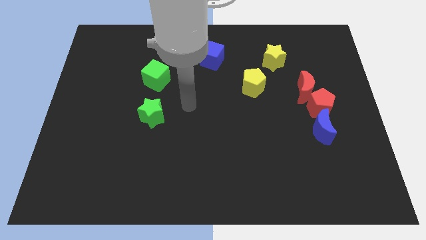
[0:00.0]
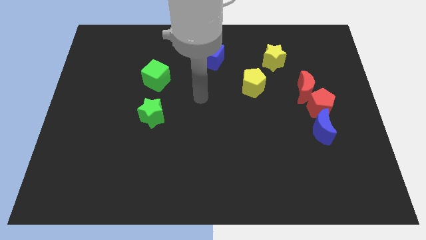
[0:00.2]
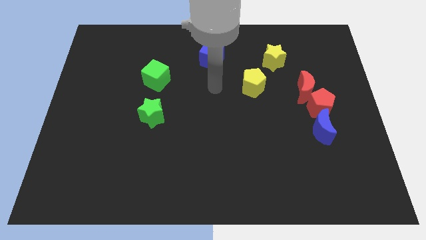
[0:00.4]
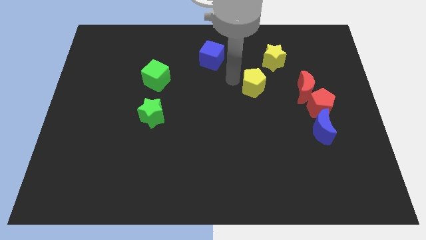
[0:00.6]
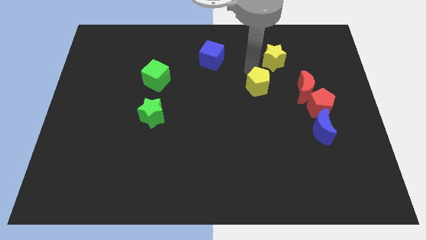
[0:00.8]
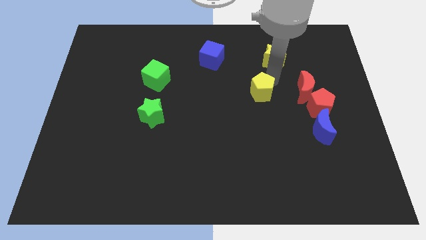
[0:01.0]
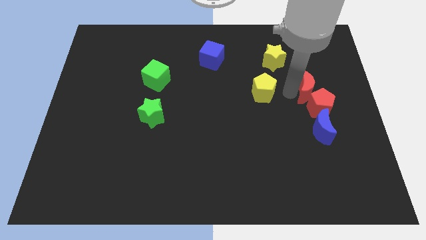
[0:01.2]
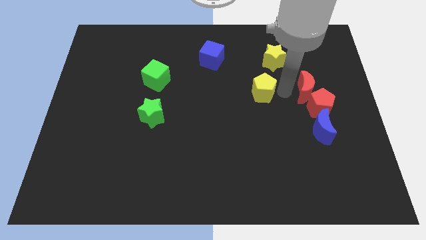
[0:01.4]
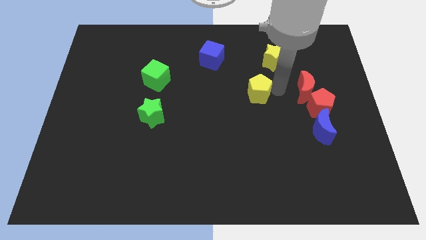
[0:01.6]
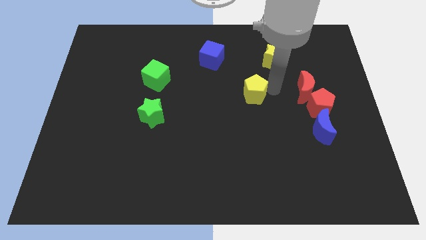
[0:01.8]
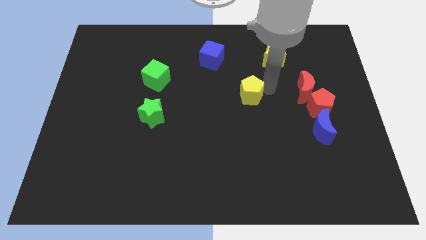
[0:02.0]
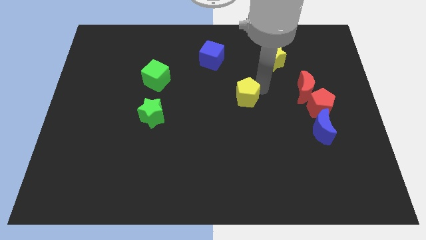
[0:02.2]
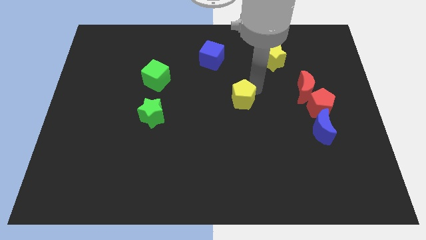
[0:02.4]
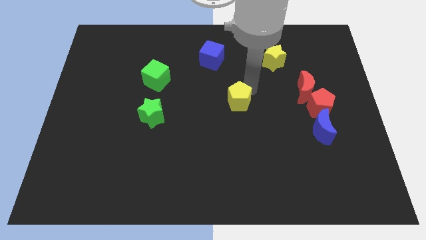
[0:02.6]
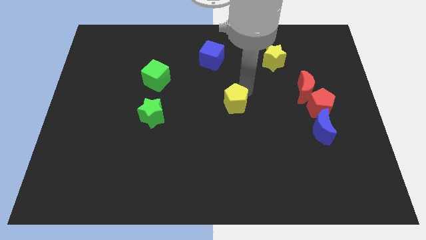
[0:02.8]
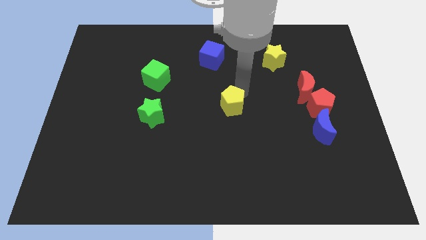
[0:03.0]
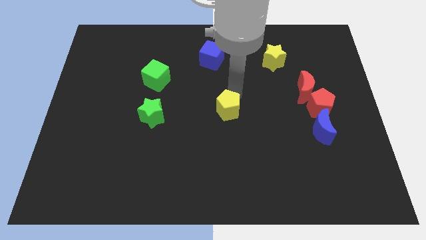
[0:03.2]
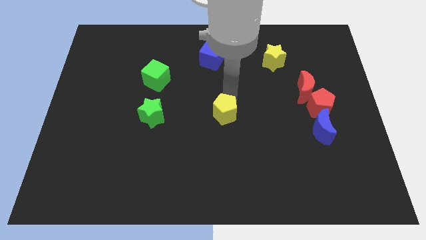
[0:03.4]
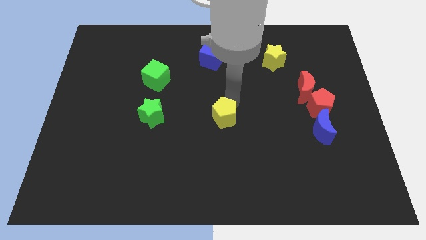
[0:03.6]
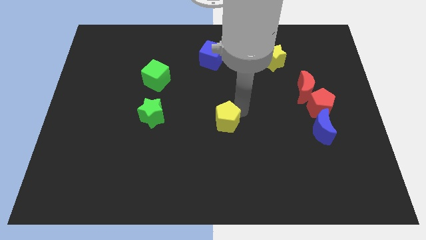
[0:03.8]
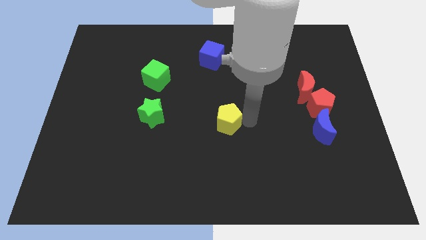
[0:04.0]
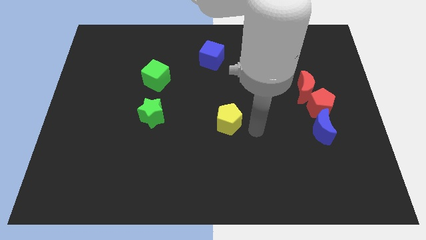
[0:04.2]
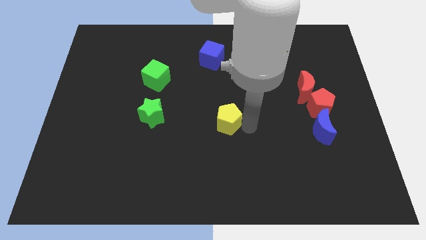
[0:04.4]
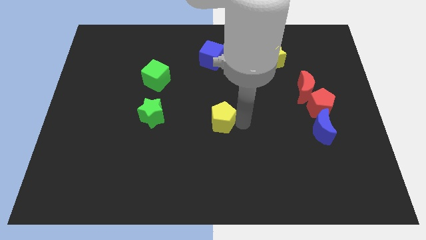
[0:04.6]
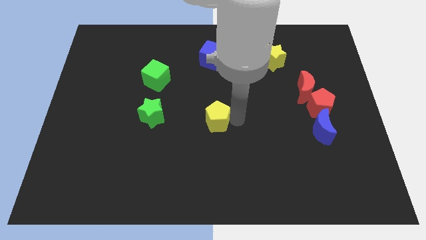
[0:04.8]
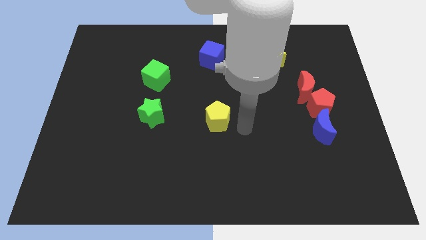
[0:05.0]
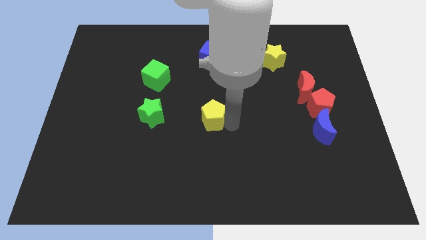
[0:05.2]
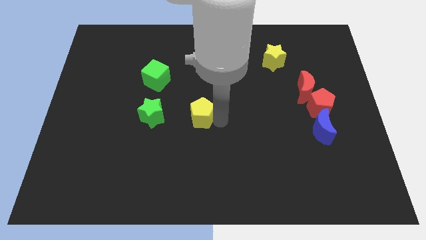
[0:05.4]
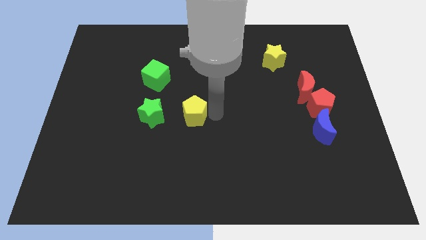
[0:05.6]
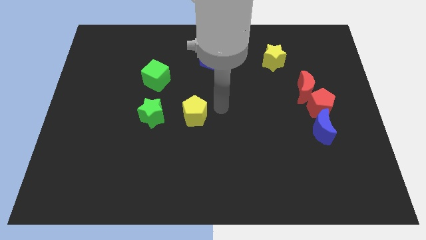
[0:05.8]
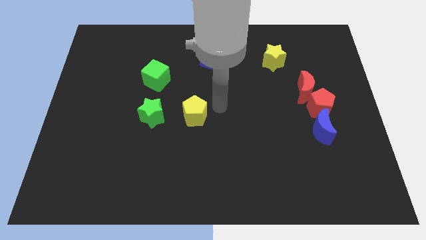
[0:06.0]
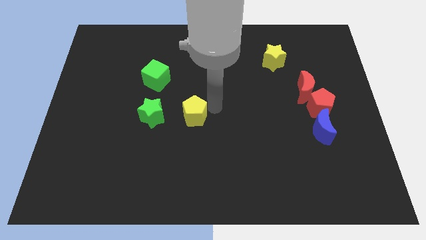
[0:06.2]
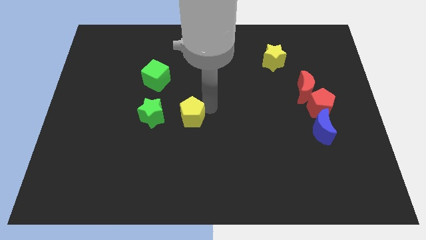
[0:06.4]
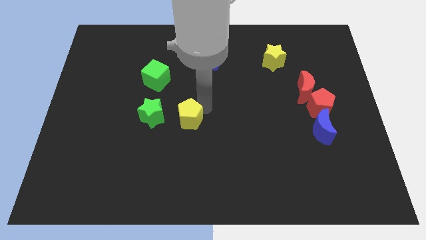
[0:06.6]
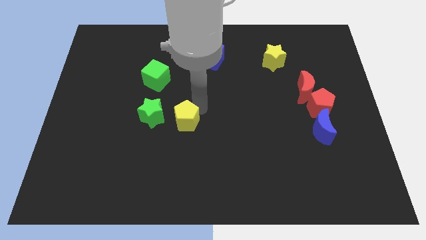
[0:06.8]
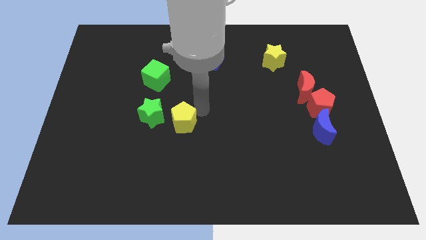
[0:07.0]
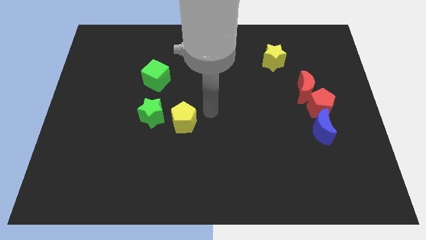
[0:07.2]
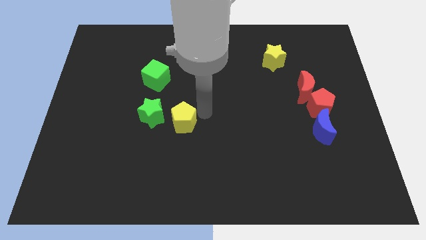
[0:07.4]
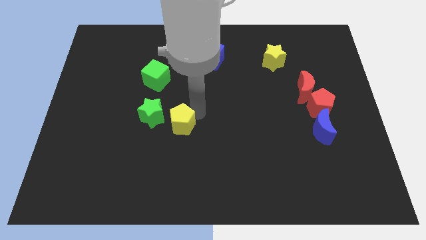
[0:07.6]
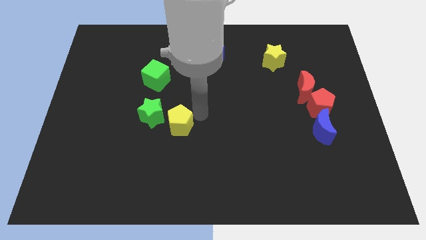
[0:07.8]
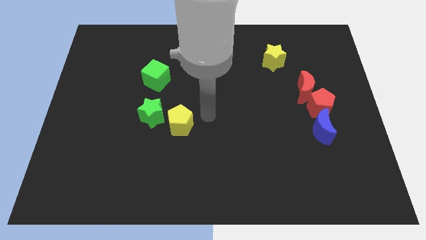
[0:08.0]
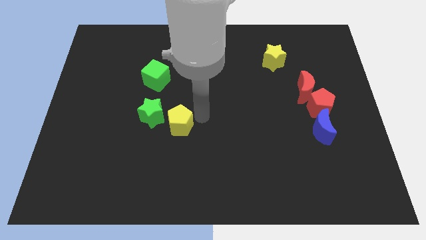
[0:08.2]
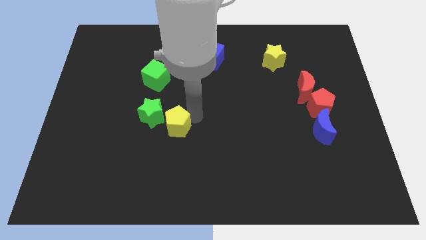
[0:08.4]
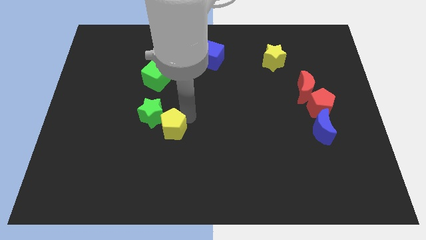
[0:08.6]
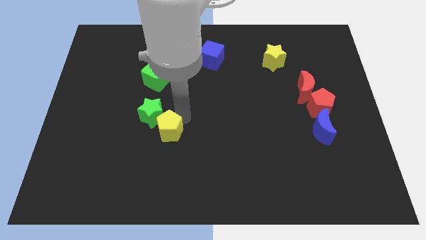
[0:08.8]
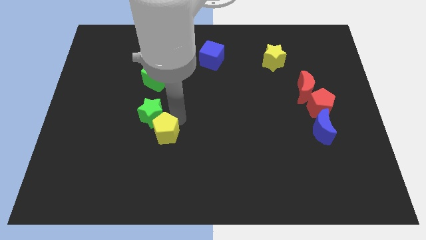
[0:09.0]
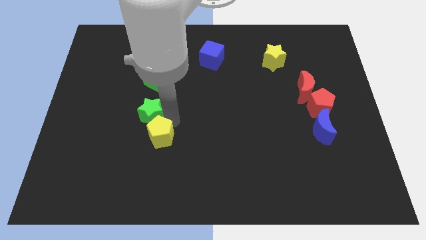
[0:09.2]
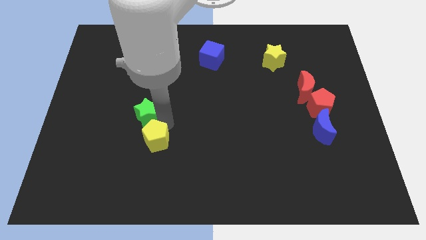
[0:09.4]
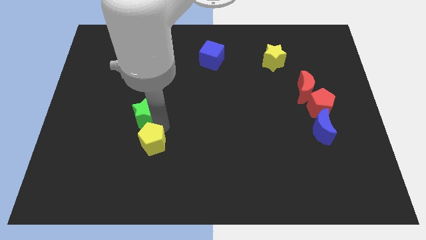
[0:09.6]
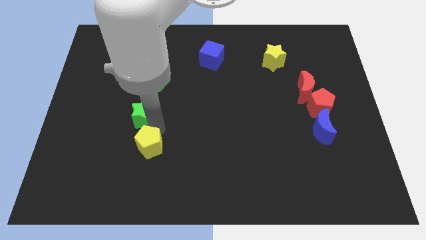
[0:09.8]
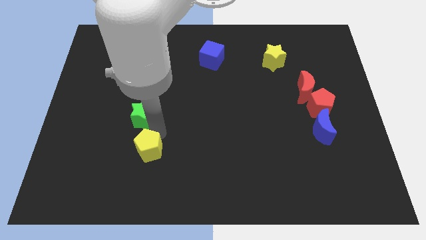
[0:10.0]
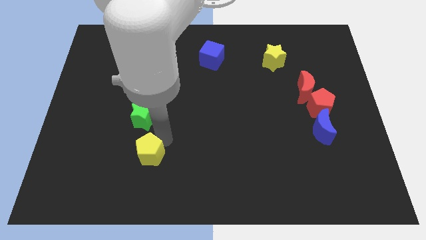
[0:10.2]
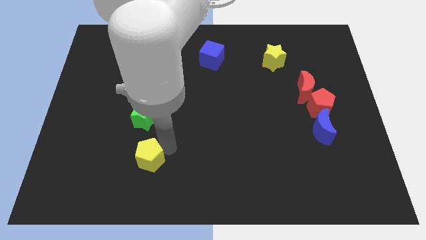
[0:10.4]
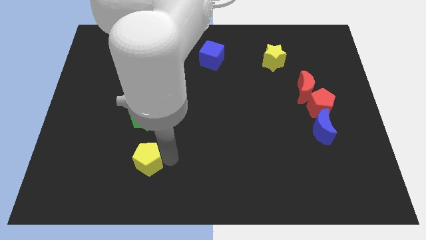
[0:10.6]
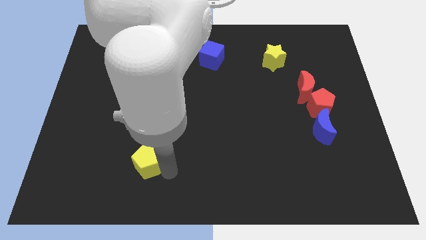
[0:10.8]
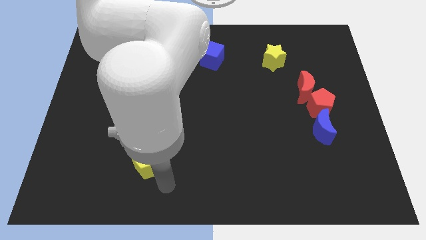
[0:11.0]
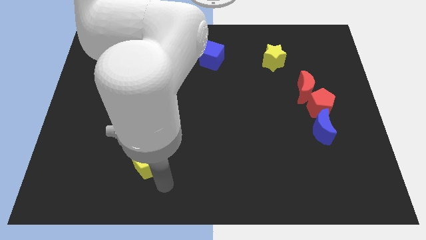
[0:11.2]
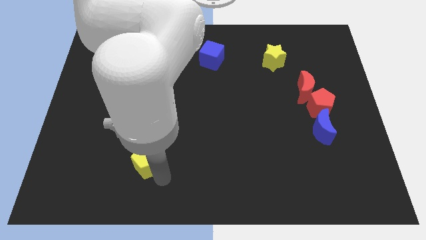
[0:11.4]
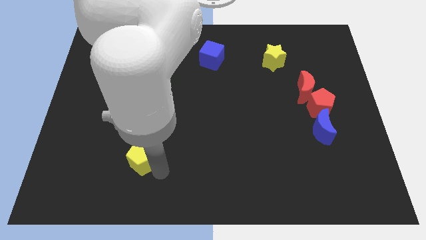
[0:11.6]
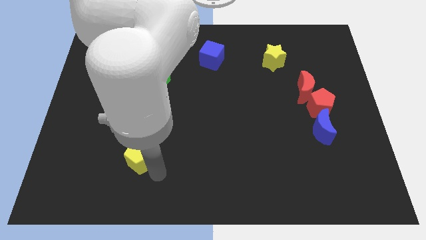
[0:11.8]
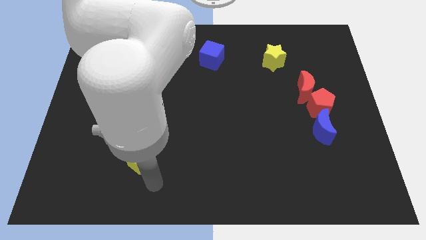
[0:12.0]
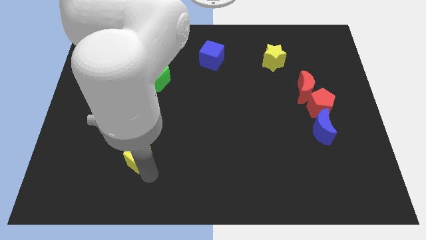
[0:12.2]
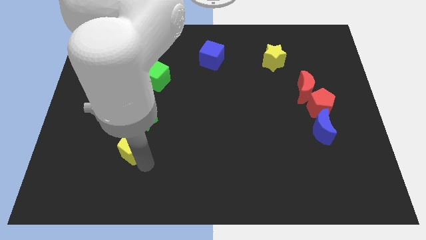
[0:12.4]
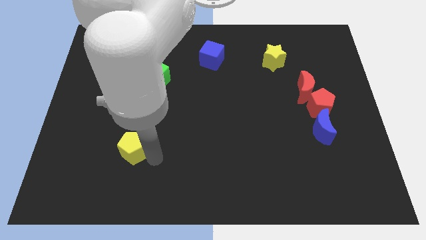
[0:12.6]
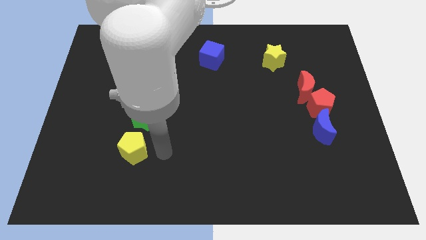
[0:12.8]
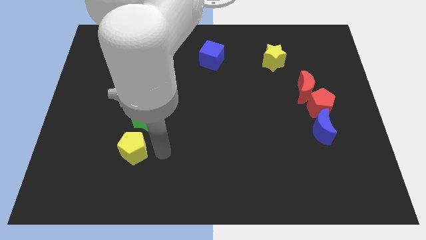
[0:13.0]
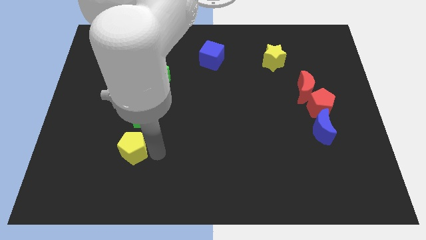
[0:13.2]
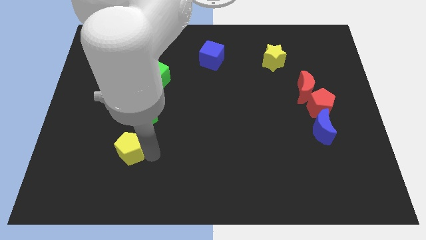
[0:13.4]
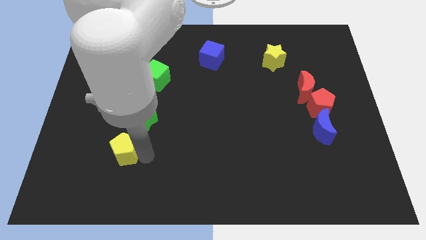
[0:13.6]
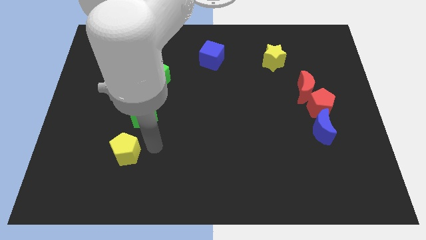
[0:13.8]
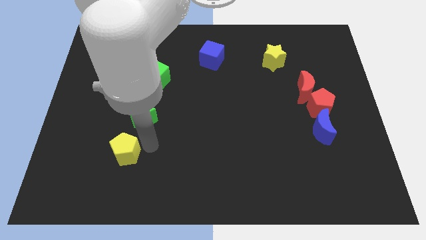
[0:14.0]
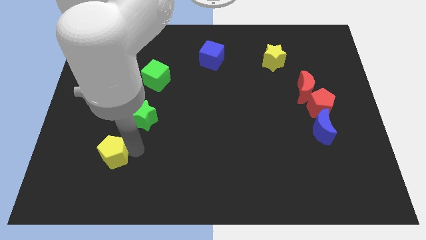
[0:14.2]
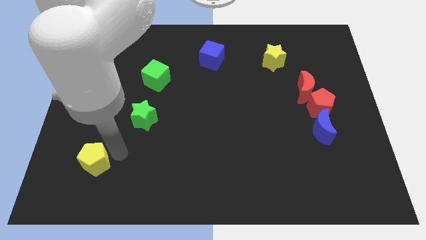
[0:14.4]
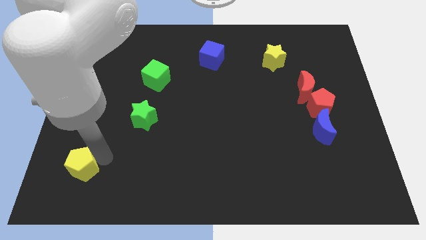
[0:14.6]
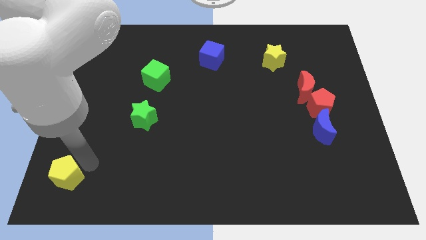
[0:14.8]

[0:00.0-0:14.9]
slide the yellow pentagon to the bottom left of the board

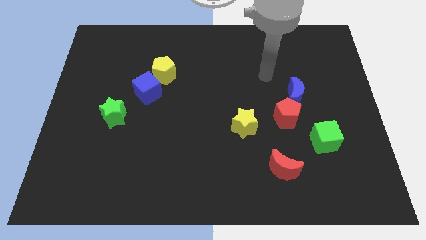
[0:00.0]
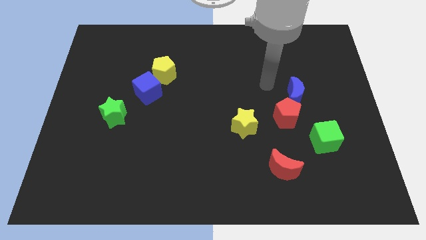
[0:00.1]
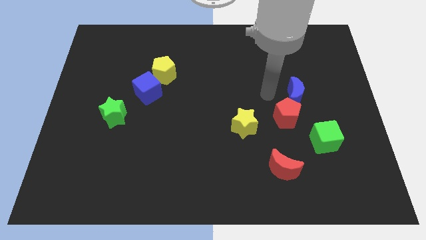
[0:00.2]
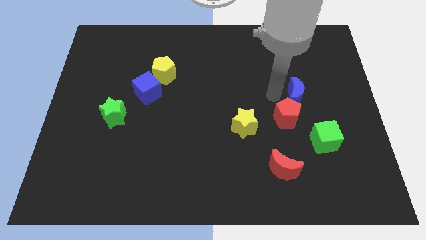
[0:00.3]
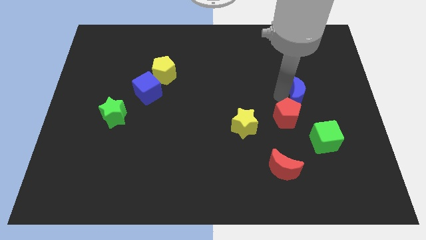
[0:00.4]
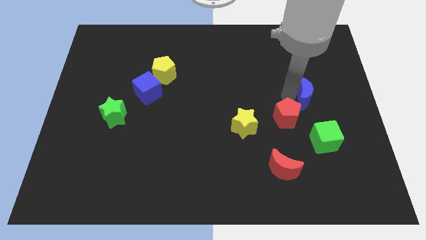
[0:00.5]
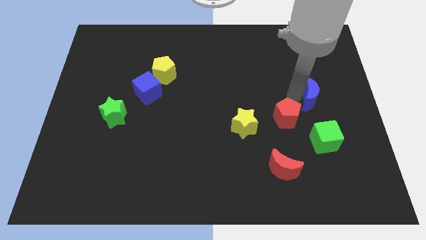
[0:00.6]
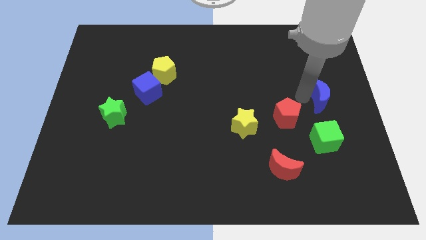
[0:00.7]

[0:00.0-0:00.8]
put the blue moon to the right side of the board
